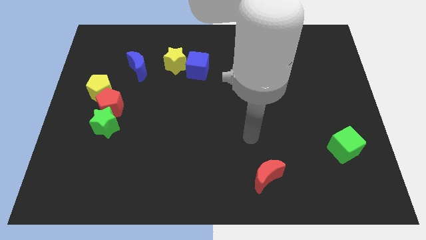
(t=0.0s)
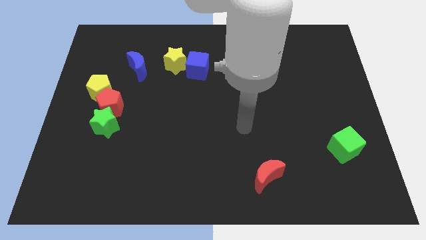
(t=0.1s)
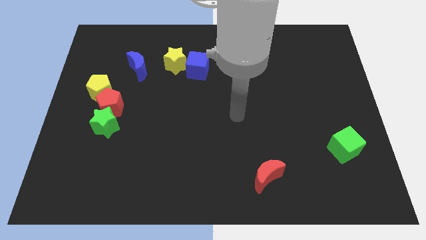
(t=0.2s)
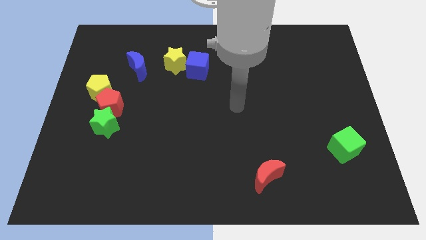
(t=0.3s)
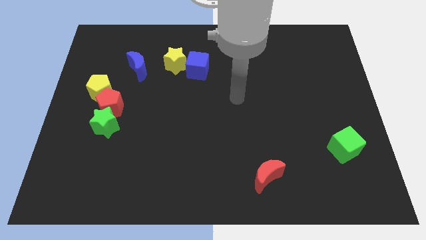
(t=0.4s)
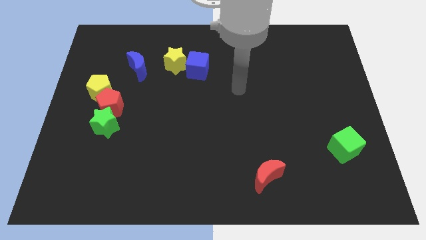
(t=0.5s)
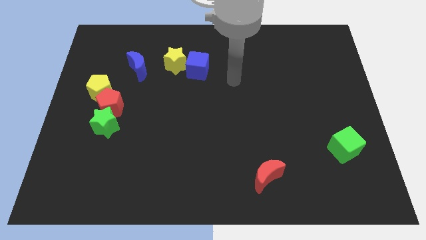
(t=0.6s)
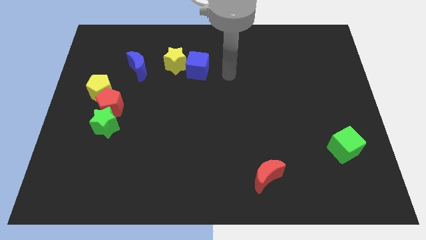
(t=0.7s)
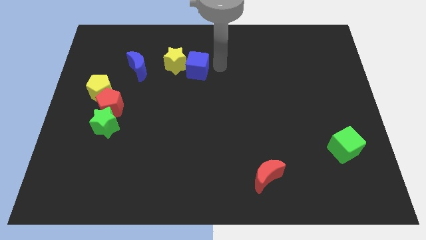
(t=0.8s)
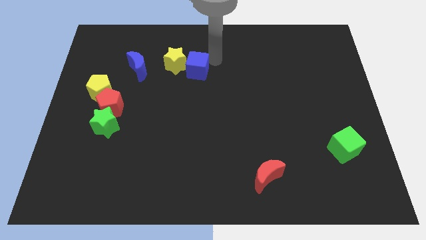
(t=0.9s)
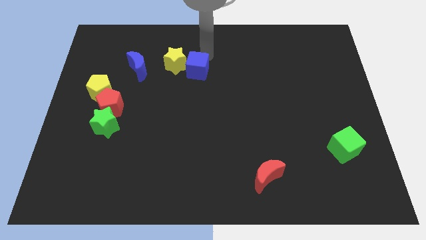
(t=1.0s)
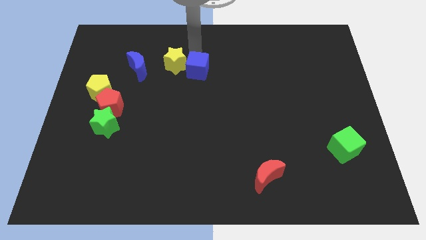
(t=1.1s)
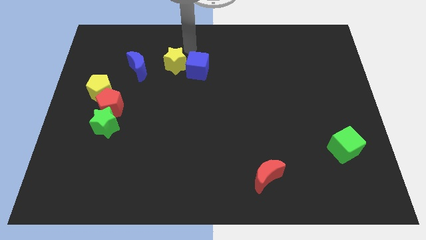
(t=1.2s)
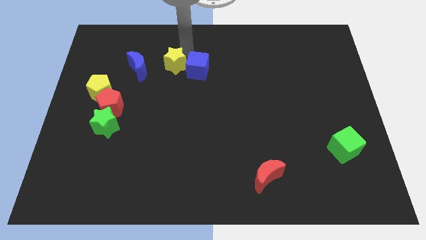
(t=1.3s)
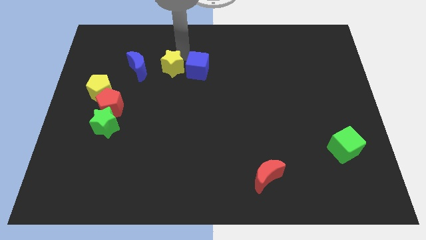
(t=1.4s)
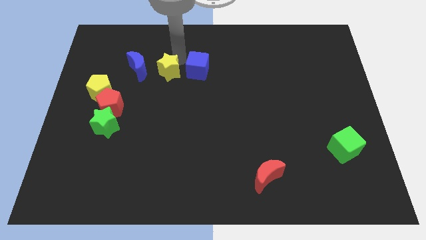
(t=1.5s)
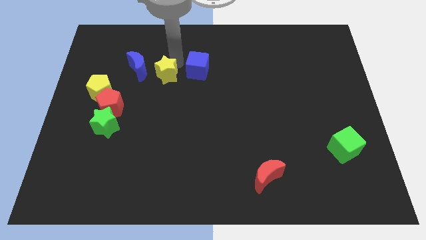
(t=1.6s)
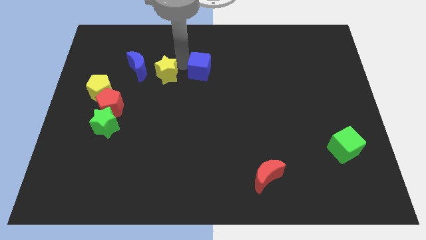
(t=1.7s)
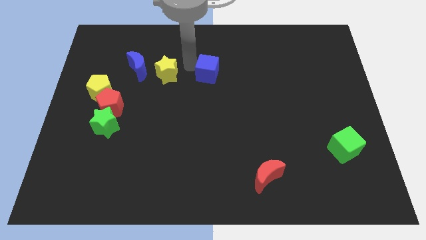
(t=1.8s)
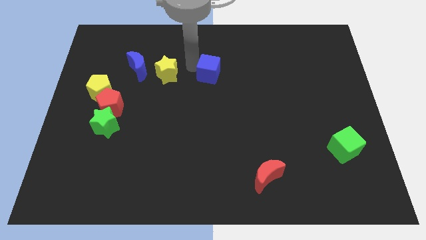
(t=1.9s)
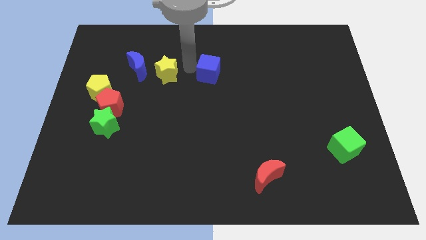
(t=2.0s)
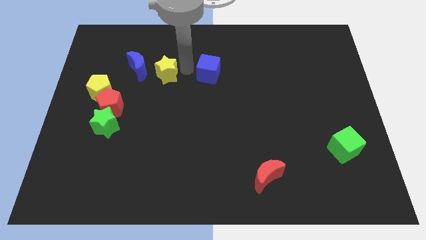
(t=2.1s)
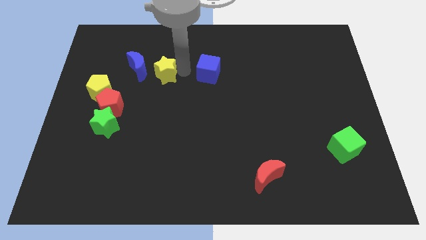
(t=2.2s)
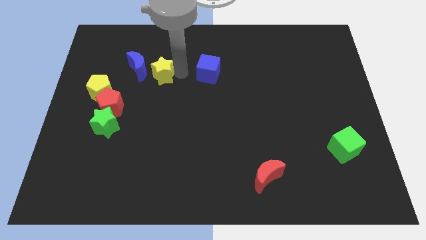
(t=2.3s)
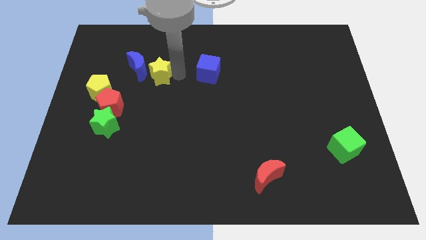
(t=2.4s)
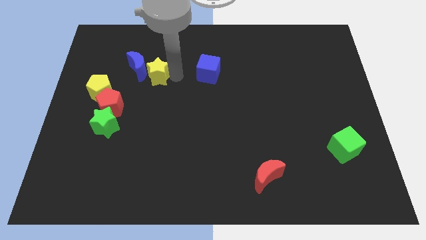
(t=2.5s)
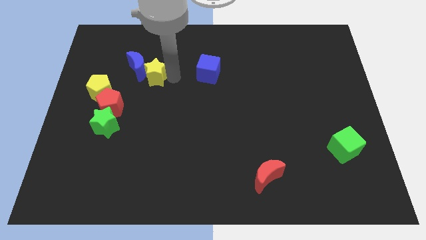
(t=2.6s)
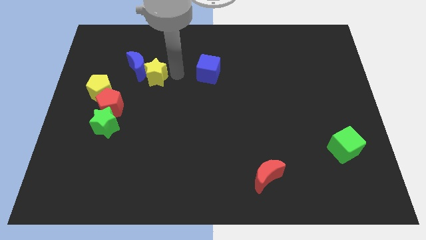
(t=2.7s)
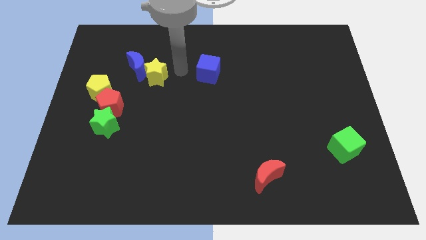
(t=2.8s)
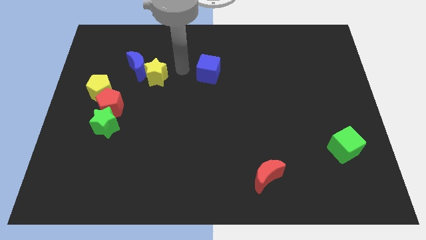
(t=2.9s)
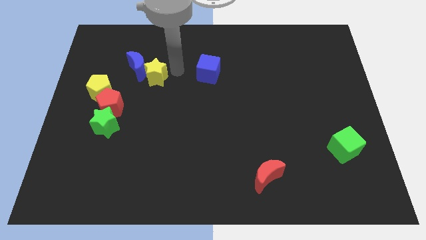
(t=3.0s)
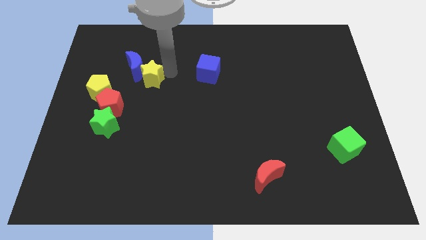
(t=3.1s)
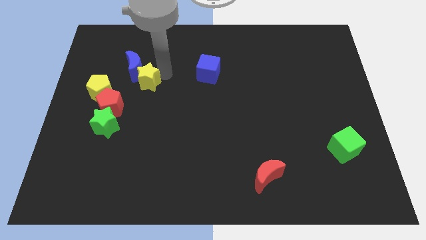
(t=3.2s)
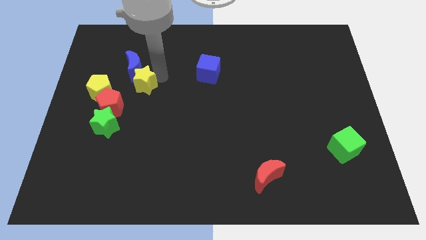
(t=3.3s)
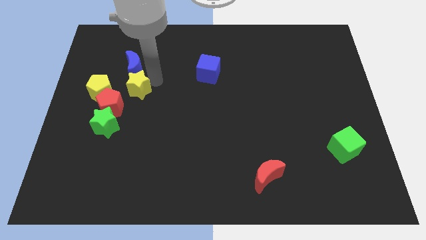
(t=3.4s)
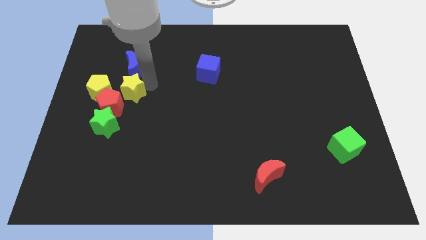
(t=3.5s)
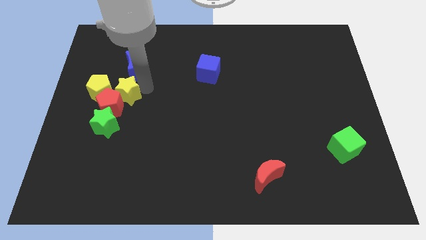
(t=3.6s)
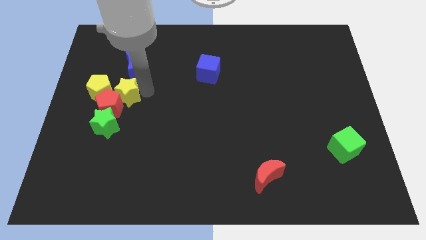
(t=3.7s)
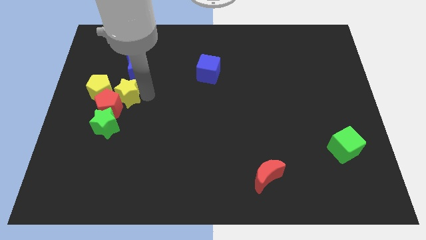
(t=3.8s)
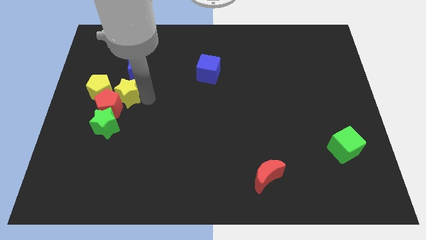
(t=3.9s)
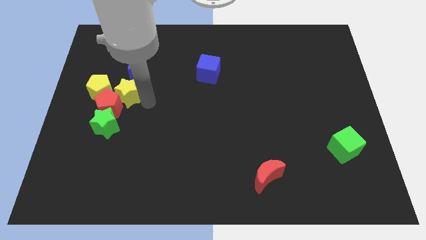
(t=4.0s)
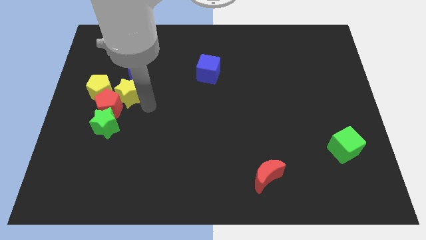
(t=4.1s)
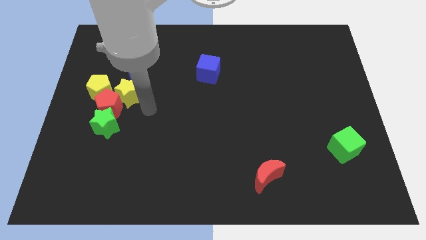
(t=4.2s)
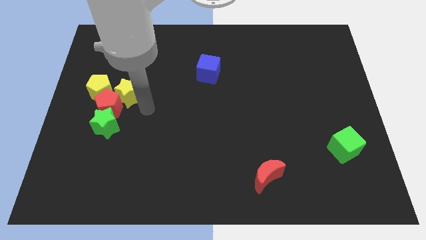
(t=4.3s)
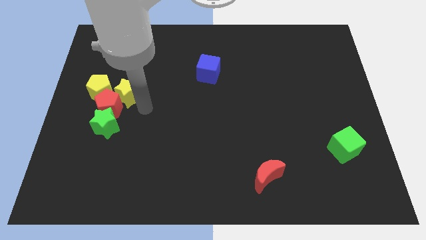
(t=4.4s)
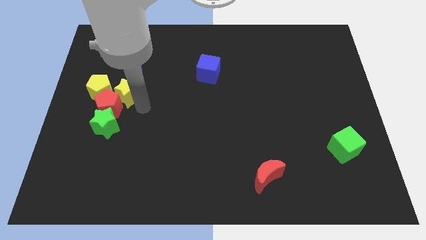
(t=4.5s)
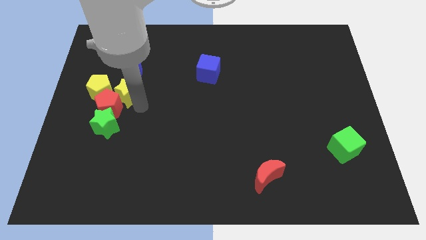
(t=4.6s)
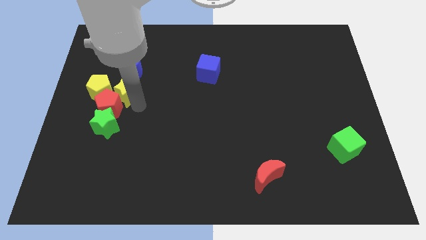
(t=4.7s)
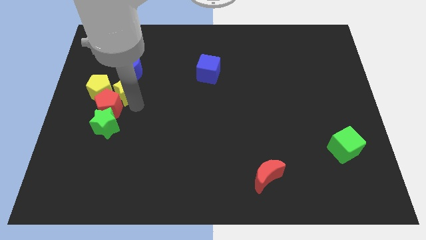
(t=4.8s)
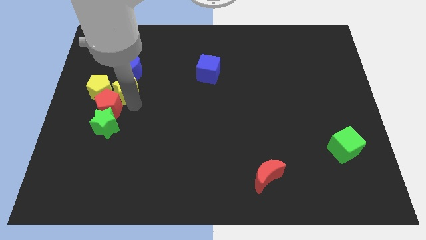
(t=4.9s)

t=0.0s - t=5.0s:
move the yellow star towards the yellow pentagon

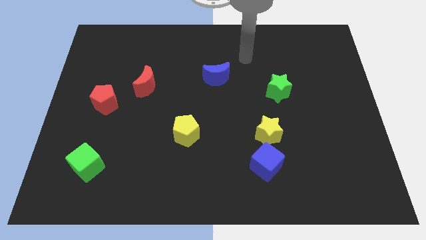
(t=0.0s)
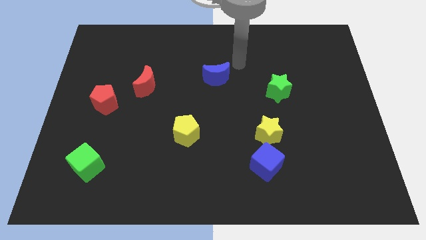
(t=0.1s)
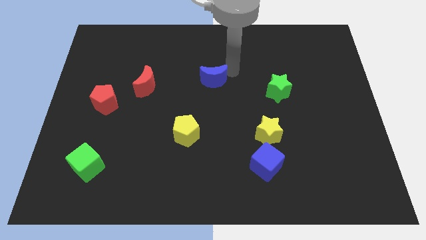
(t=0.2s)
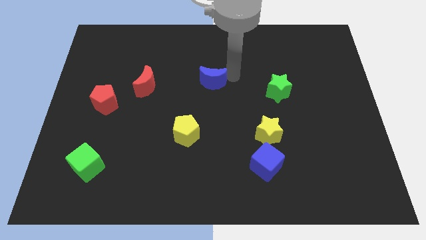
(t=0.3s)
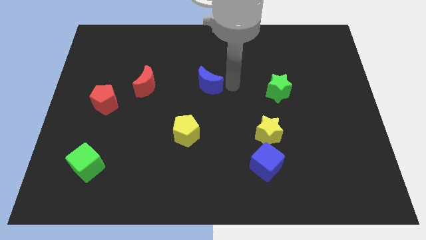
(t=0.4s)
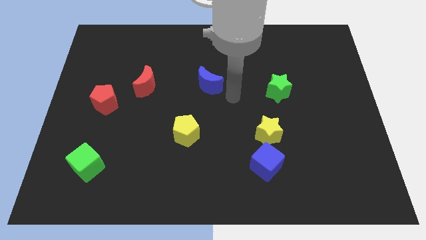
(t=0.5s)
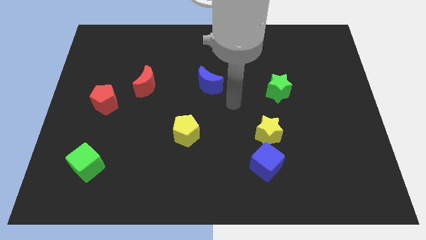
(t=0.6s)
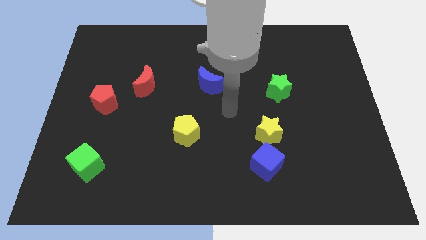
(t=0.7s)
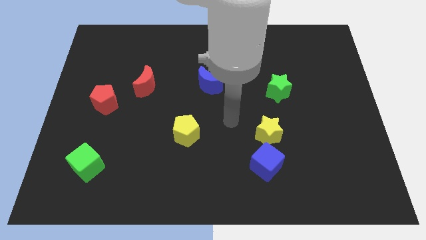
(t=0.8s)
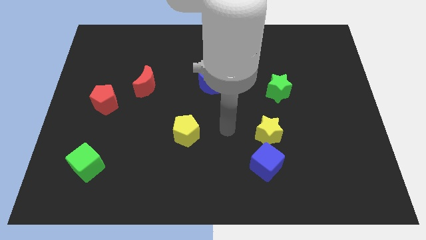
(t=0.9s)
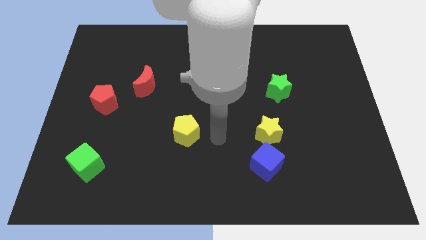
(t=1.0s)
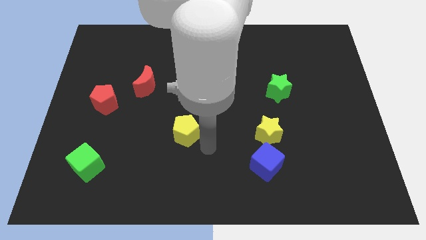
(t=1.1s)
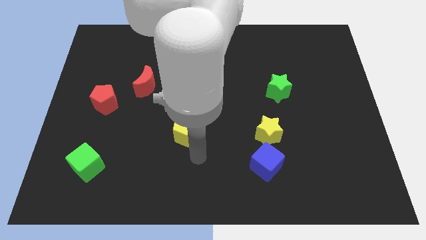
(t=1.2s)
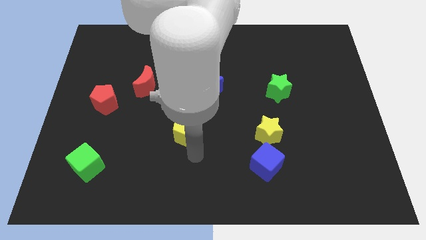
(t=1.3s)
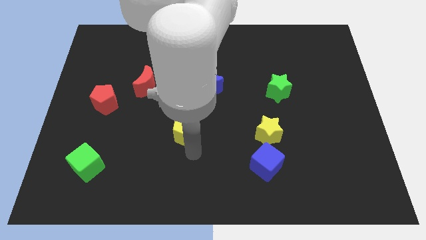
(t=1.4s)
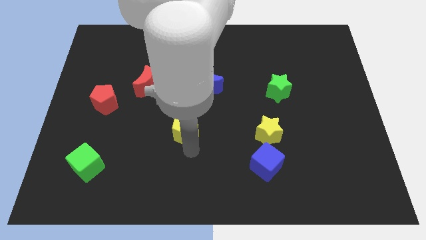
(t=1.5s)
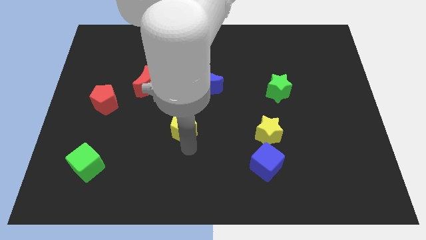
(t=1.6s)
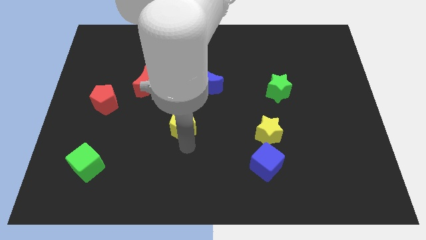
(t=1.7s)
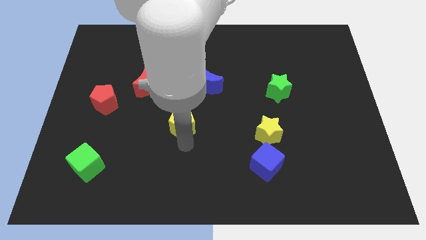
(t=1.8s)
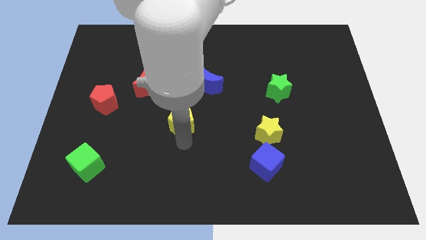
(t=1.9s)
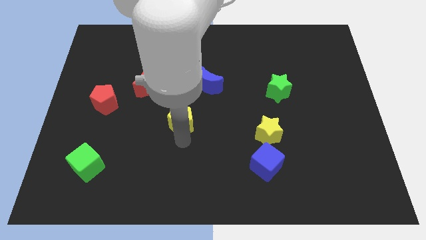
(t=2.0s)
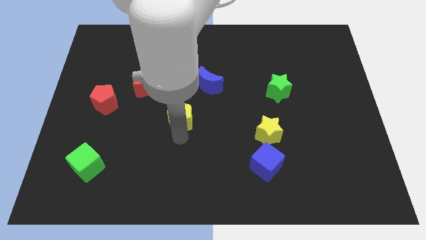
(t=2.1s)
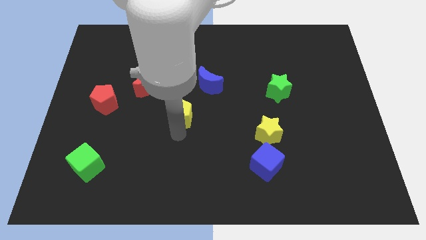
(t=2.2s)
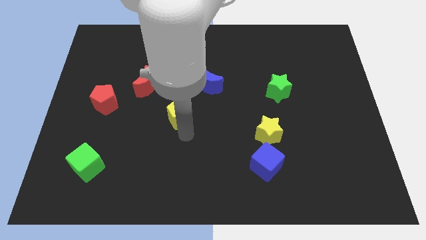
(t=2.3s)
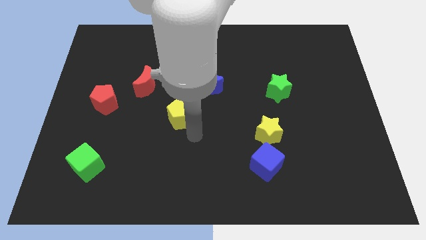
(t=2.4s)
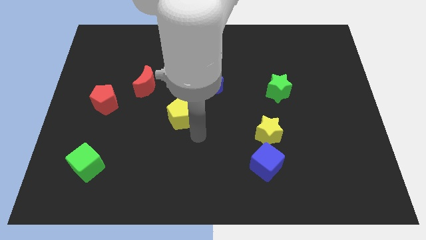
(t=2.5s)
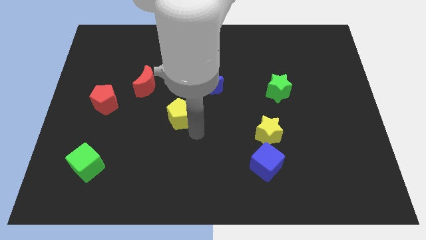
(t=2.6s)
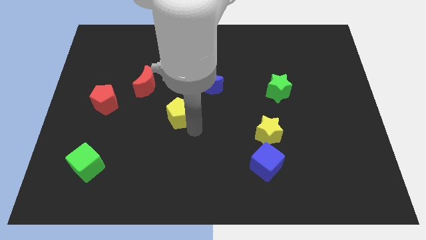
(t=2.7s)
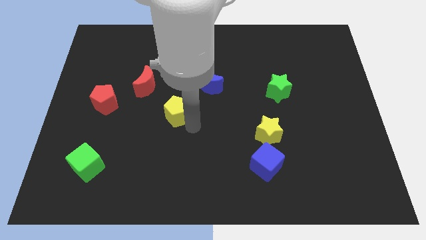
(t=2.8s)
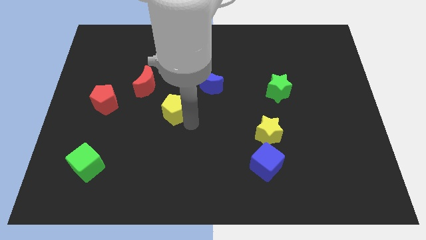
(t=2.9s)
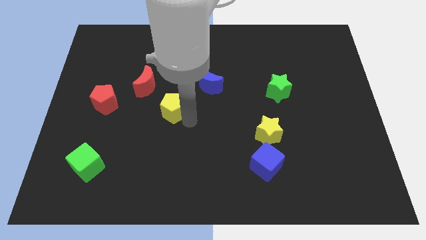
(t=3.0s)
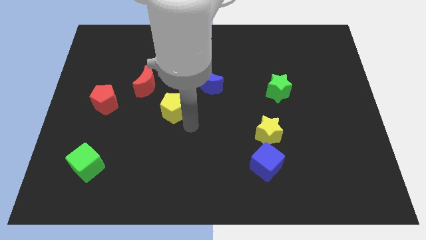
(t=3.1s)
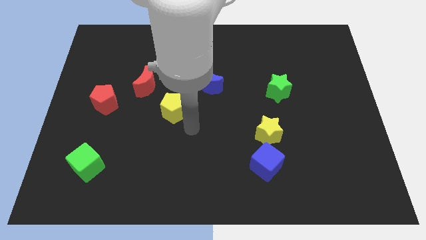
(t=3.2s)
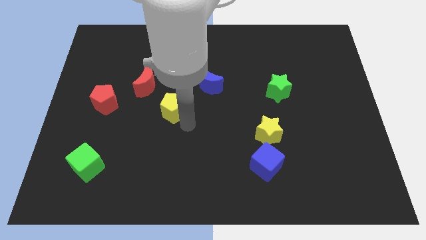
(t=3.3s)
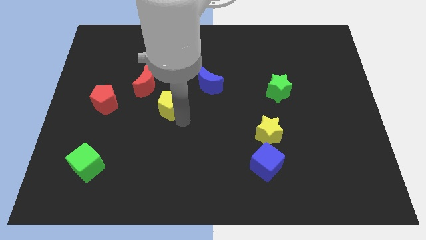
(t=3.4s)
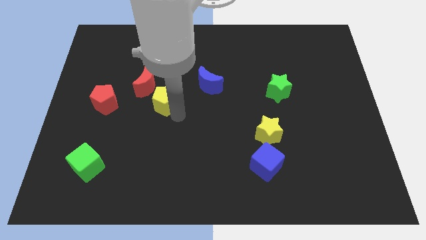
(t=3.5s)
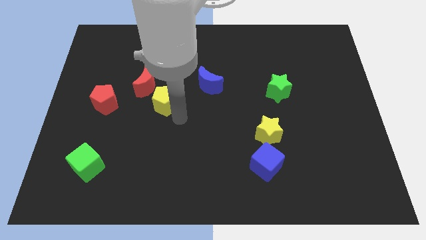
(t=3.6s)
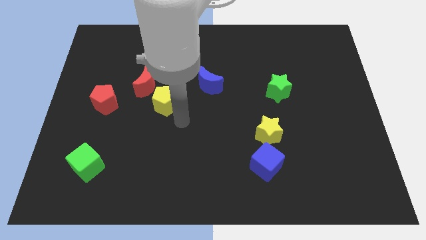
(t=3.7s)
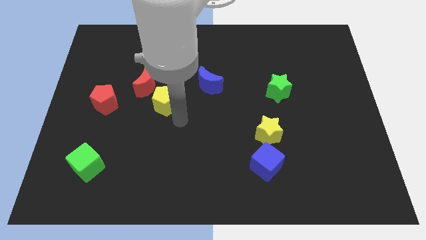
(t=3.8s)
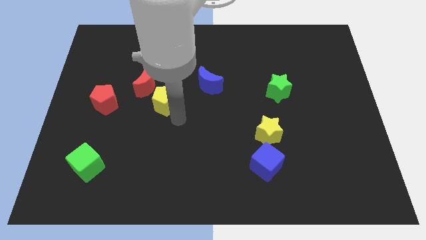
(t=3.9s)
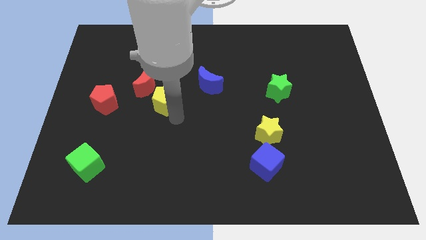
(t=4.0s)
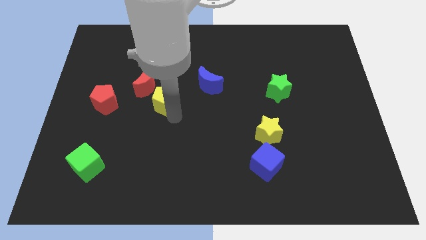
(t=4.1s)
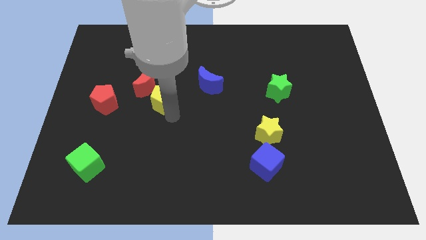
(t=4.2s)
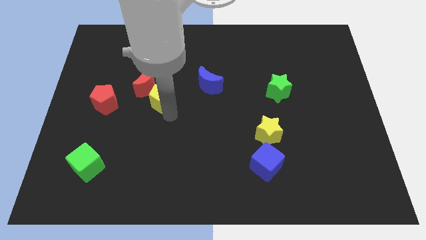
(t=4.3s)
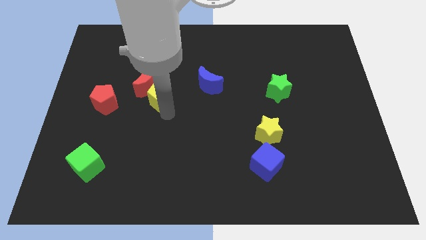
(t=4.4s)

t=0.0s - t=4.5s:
put the yellow pentagon close to the red moon
